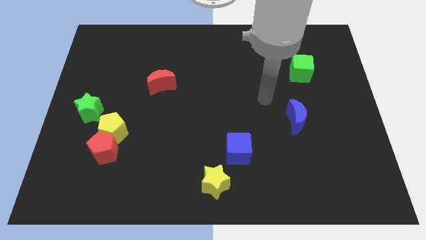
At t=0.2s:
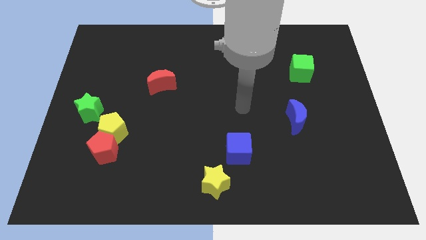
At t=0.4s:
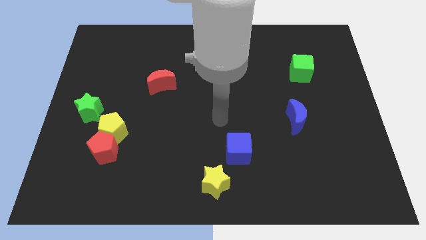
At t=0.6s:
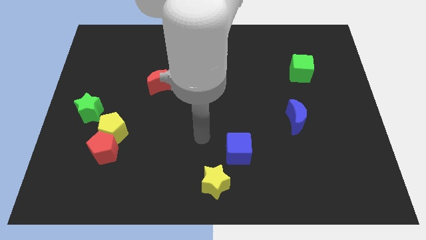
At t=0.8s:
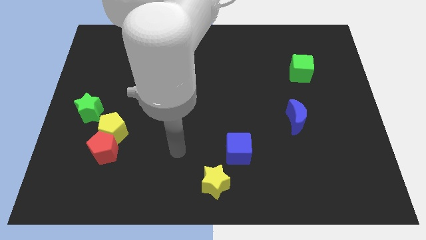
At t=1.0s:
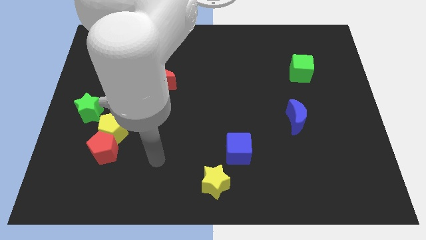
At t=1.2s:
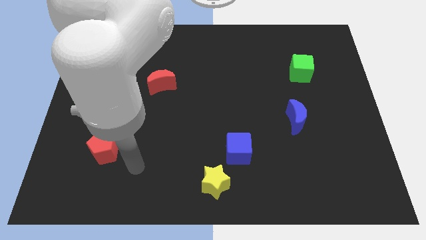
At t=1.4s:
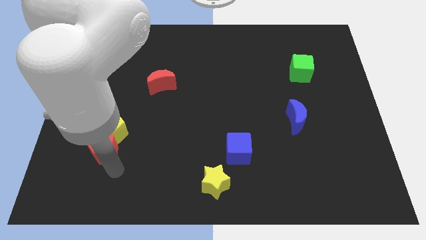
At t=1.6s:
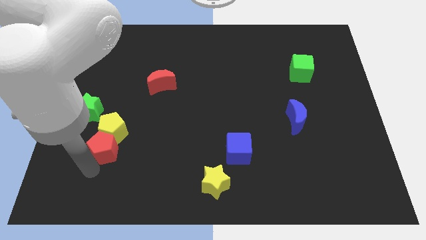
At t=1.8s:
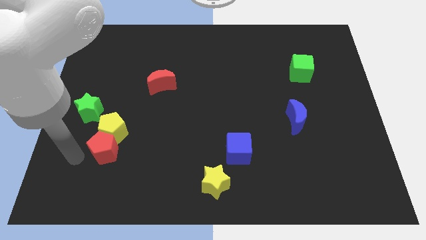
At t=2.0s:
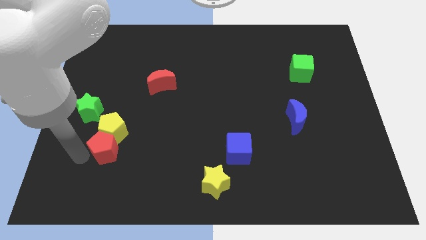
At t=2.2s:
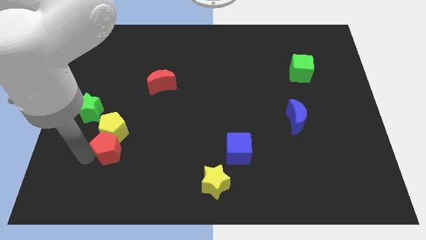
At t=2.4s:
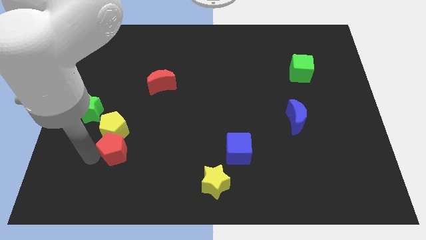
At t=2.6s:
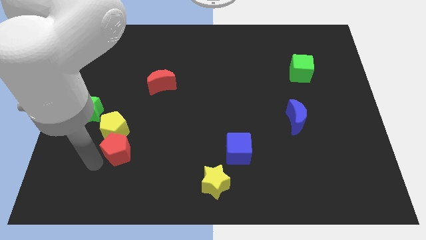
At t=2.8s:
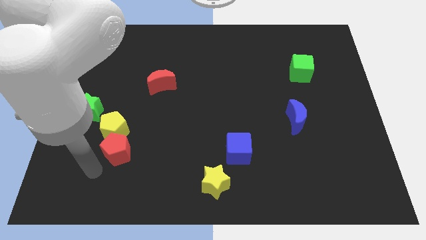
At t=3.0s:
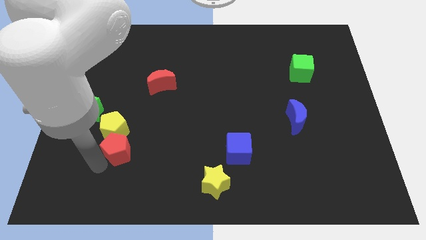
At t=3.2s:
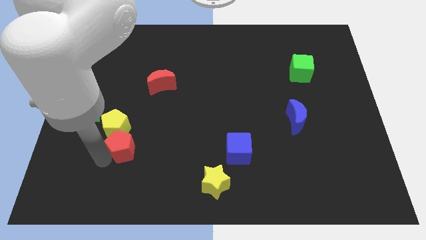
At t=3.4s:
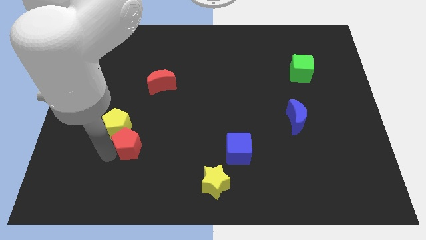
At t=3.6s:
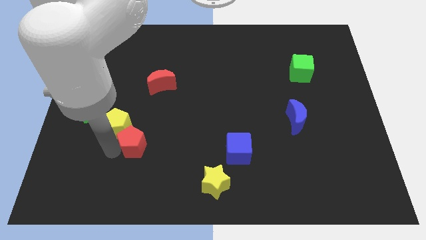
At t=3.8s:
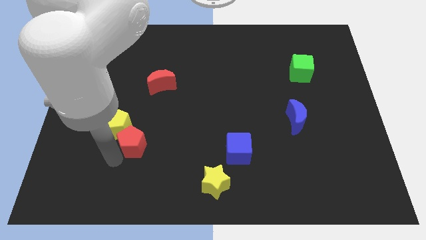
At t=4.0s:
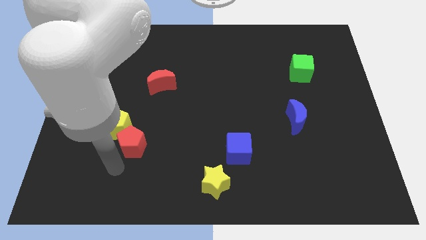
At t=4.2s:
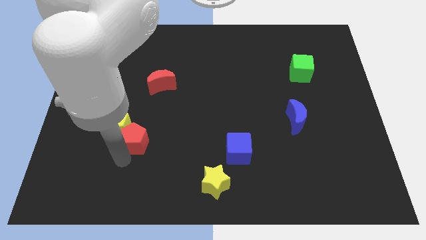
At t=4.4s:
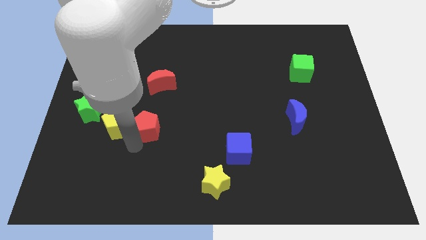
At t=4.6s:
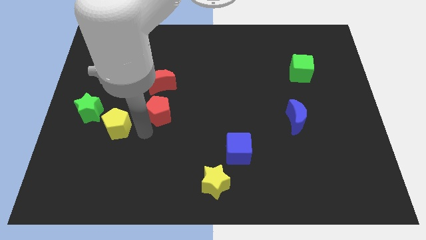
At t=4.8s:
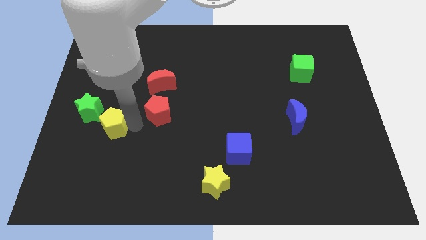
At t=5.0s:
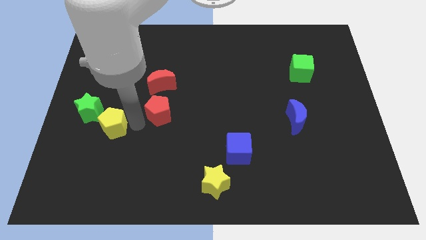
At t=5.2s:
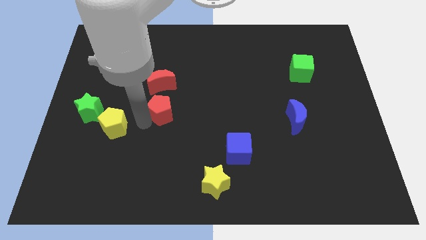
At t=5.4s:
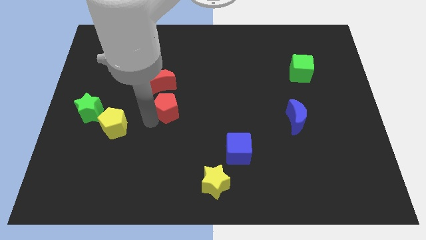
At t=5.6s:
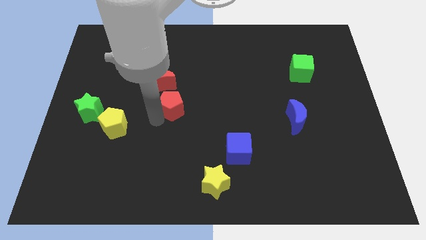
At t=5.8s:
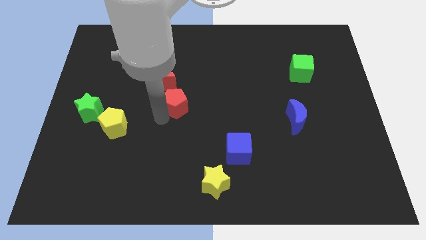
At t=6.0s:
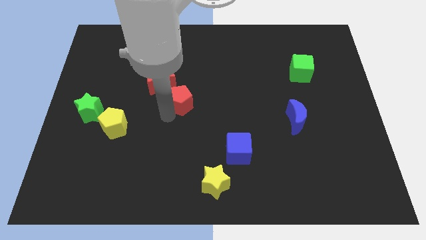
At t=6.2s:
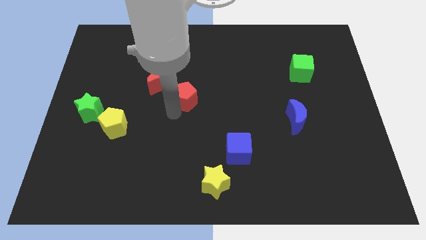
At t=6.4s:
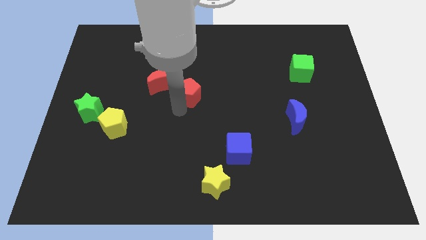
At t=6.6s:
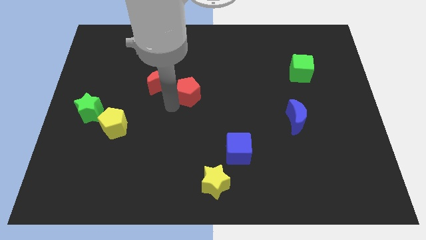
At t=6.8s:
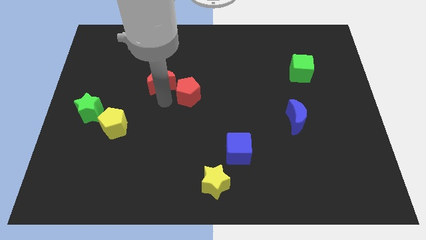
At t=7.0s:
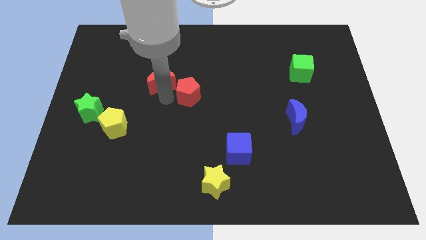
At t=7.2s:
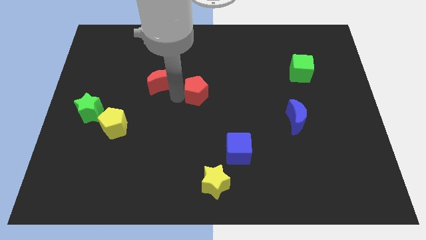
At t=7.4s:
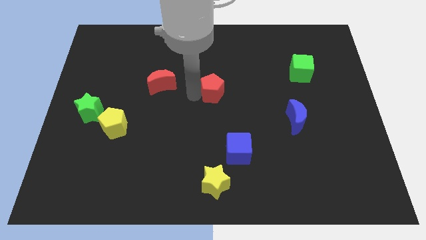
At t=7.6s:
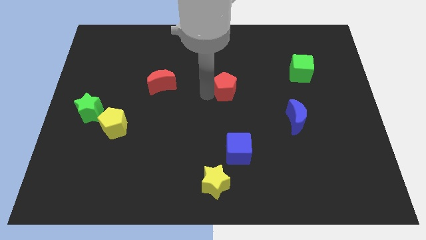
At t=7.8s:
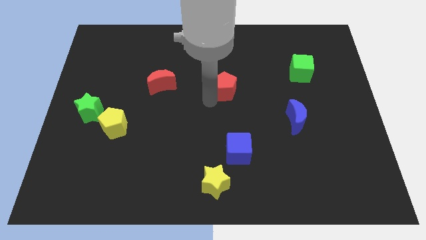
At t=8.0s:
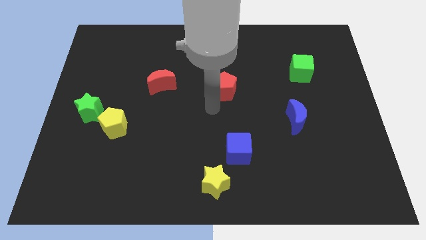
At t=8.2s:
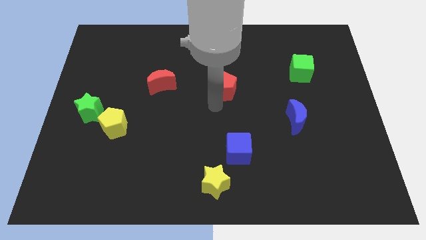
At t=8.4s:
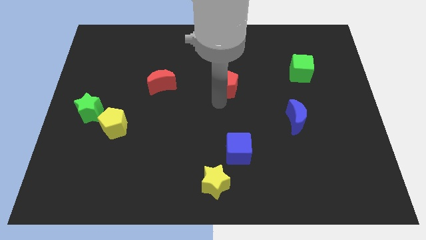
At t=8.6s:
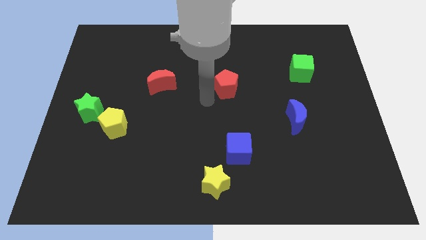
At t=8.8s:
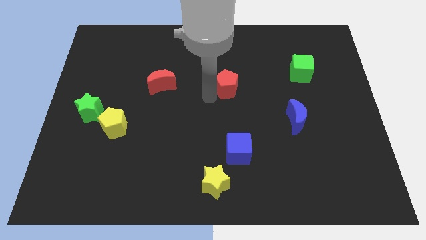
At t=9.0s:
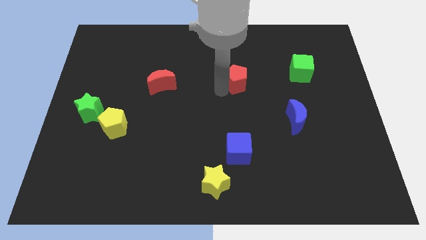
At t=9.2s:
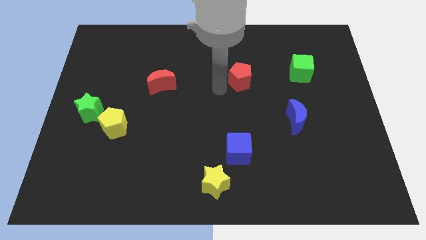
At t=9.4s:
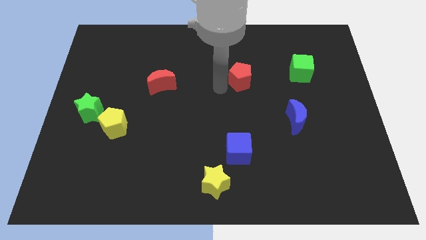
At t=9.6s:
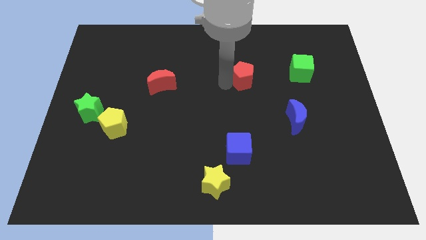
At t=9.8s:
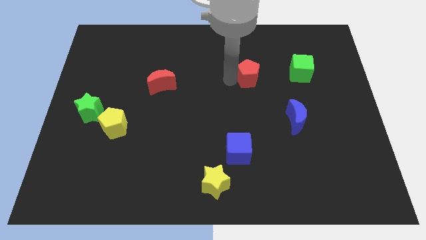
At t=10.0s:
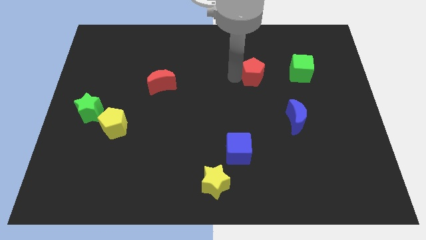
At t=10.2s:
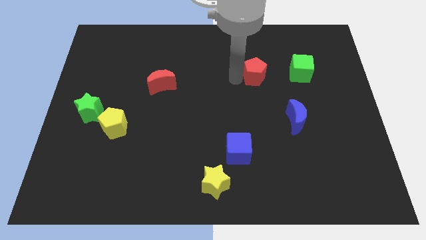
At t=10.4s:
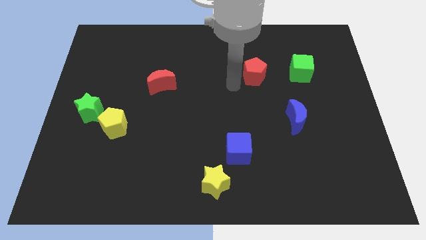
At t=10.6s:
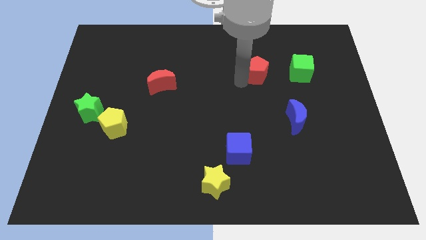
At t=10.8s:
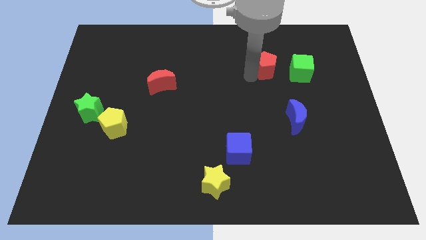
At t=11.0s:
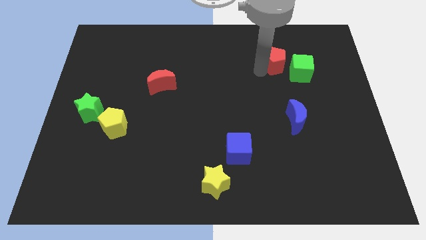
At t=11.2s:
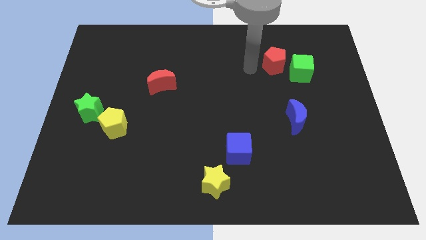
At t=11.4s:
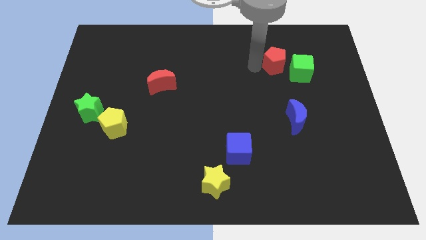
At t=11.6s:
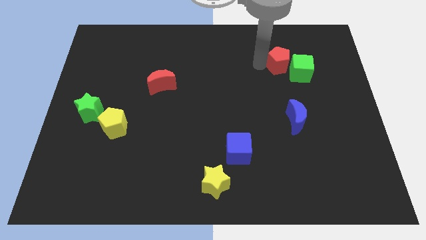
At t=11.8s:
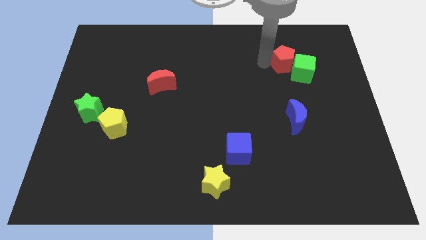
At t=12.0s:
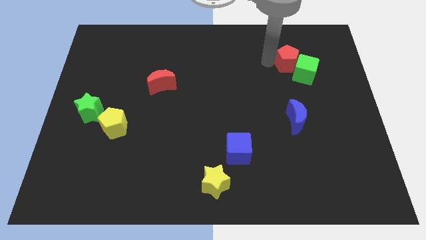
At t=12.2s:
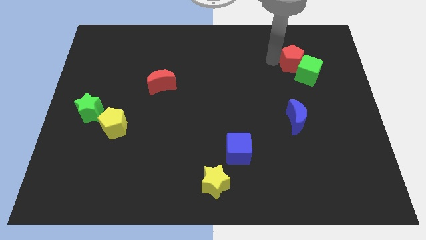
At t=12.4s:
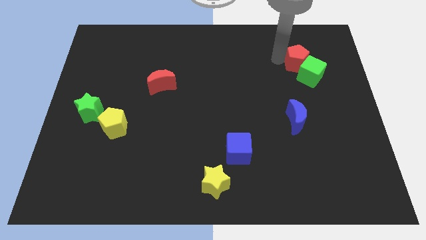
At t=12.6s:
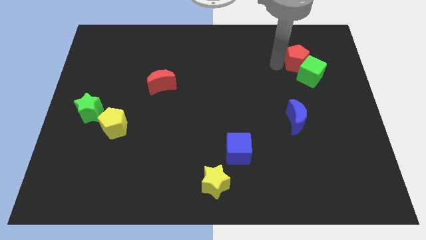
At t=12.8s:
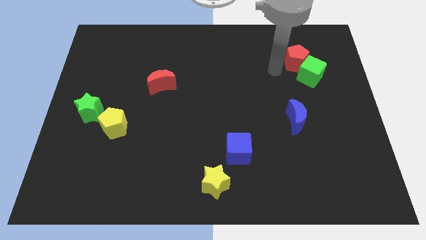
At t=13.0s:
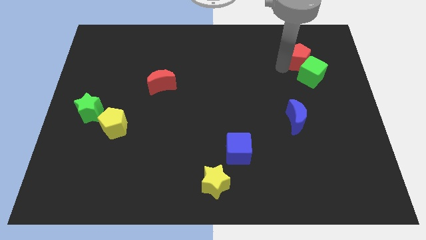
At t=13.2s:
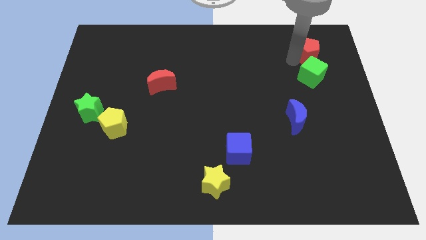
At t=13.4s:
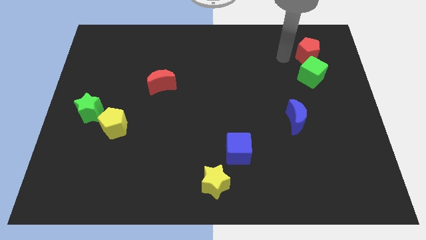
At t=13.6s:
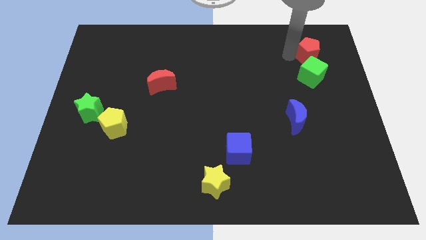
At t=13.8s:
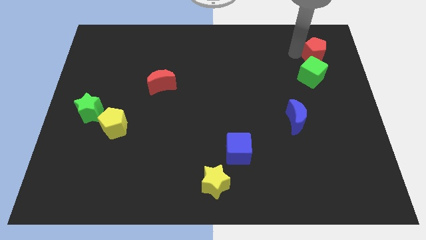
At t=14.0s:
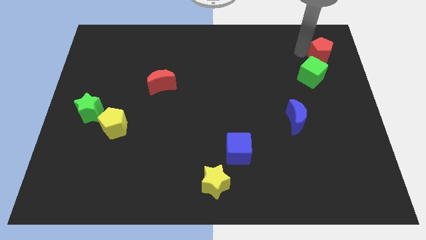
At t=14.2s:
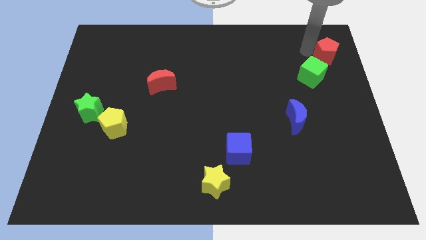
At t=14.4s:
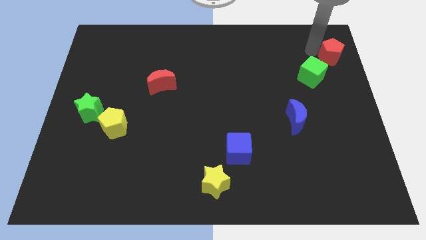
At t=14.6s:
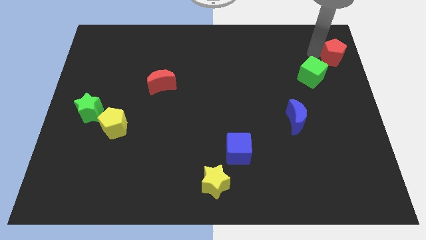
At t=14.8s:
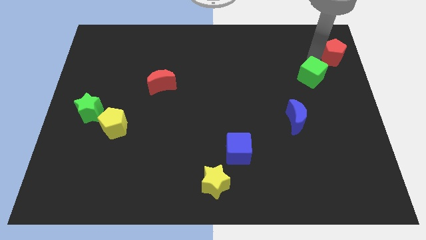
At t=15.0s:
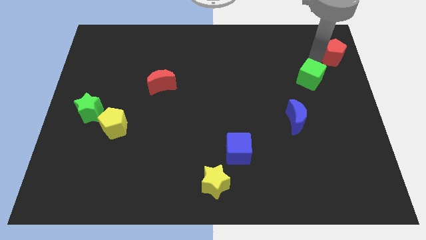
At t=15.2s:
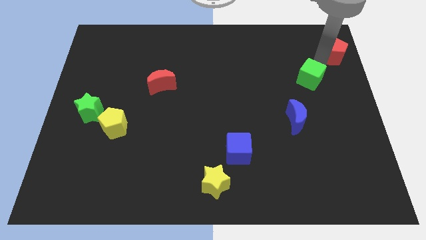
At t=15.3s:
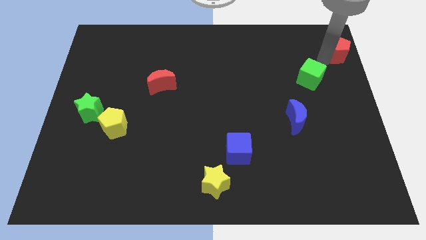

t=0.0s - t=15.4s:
put the red pentagon to the top right of the board
